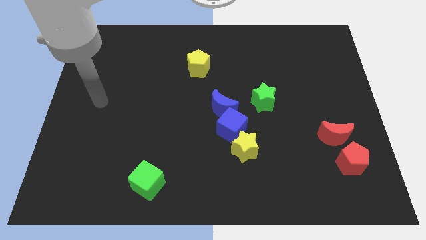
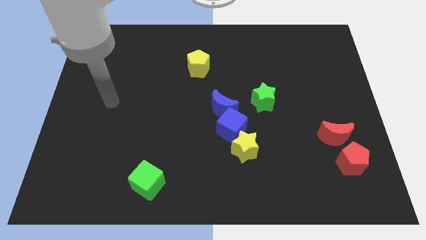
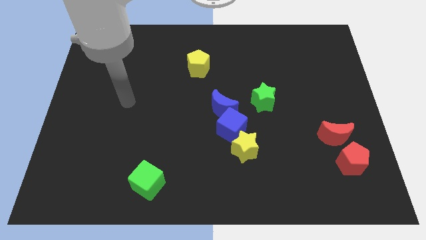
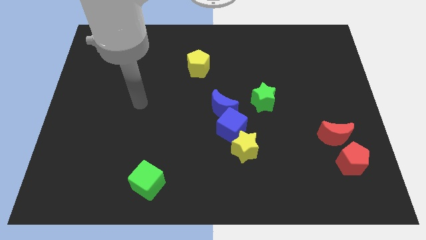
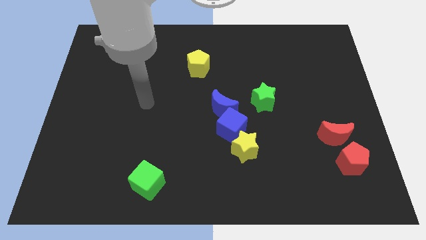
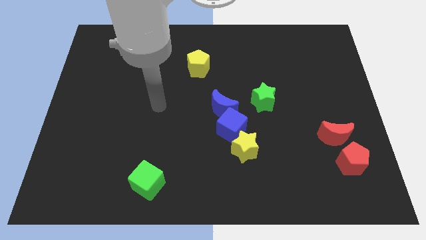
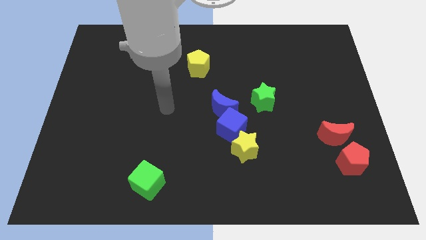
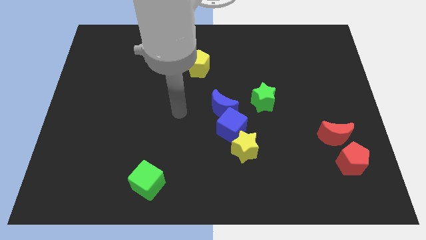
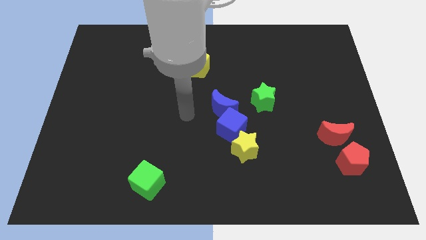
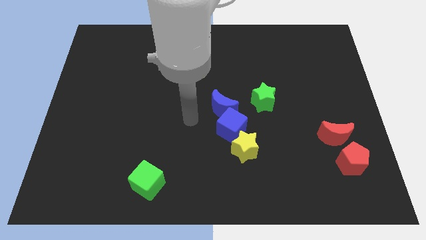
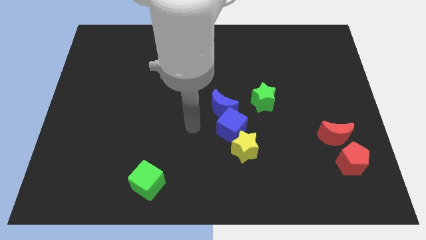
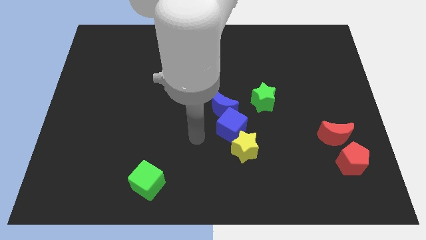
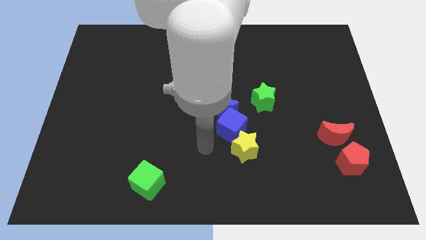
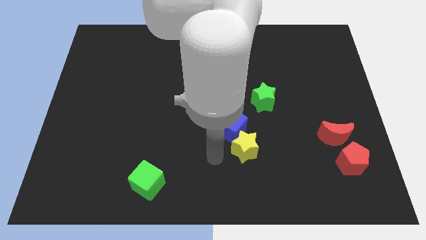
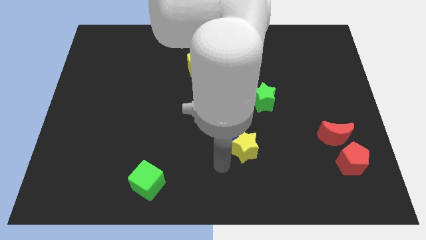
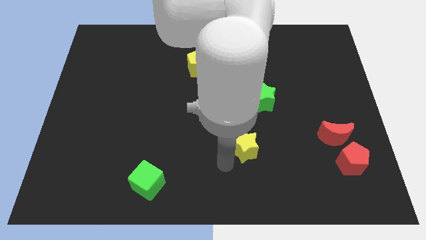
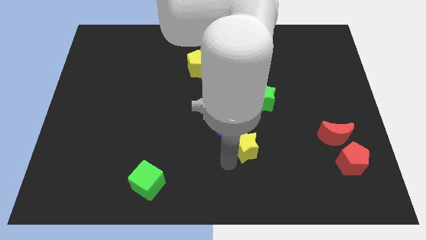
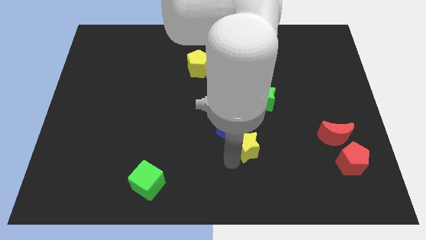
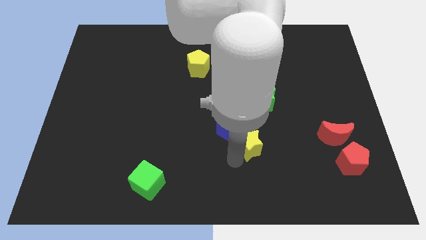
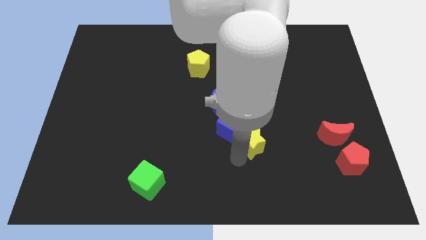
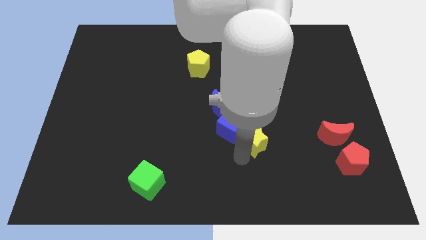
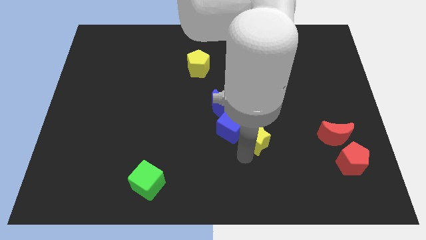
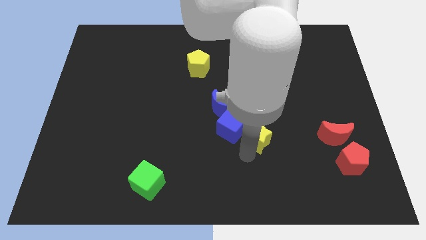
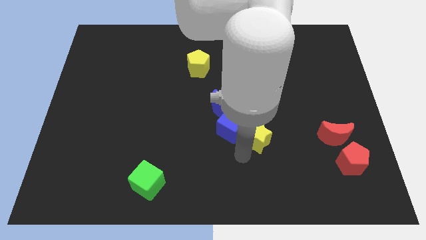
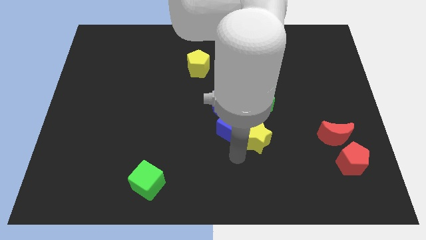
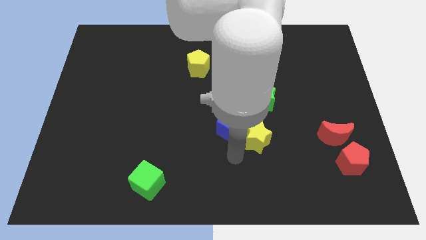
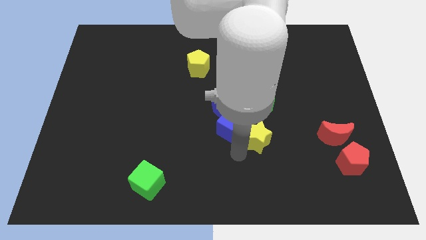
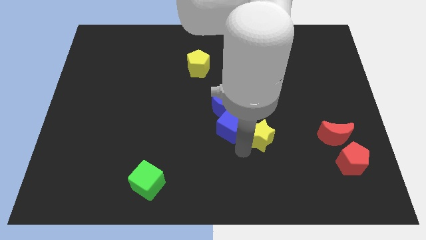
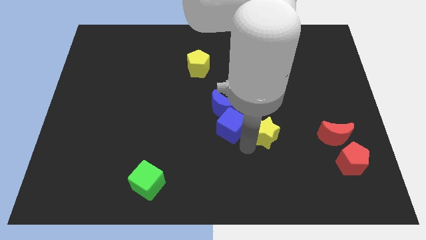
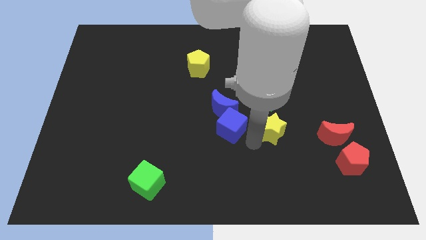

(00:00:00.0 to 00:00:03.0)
push the yellow star a little upwards and then to the right

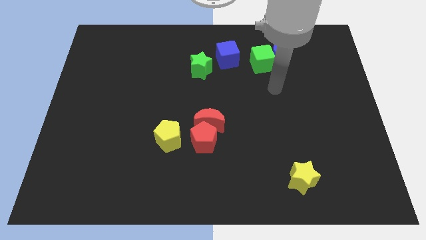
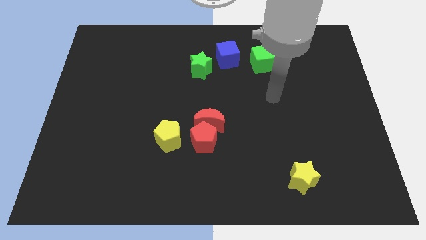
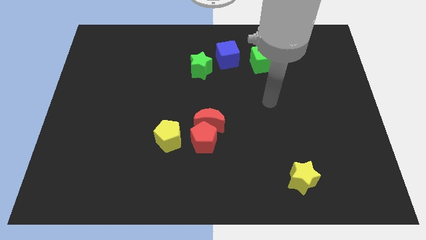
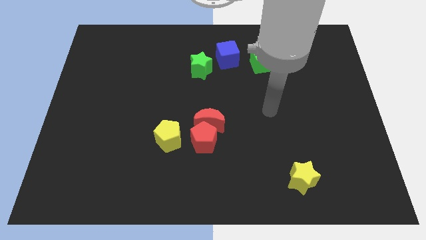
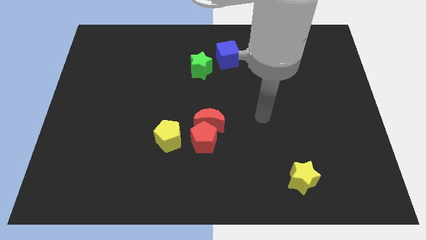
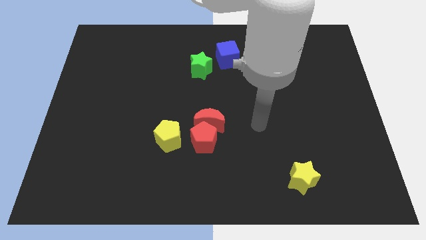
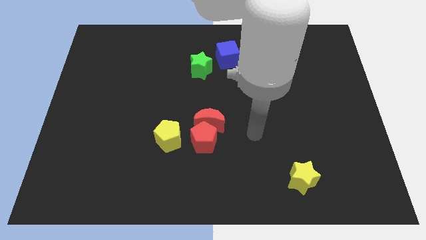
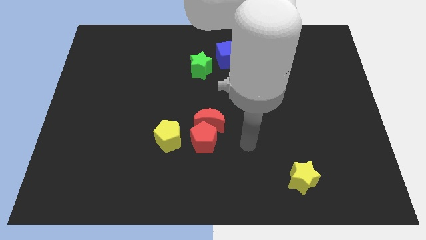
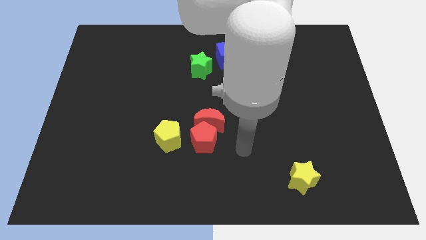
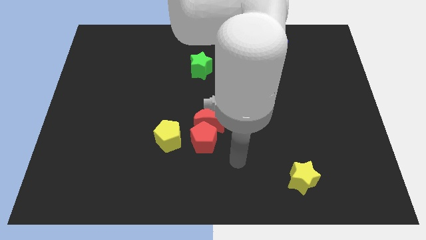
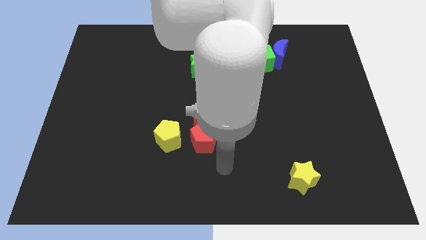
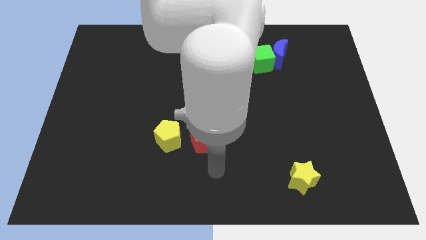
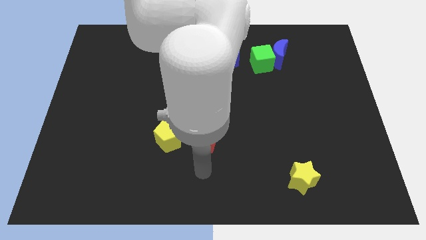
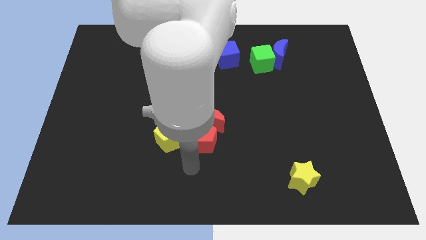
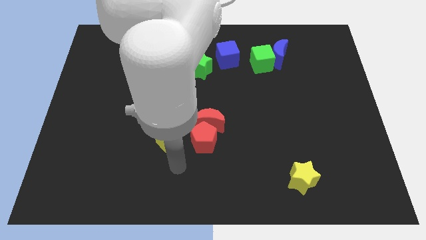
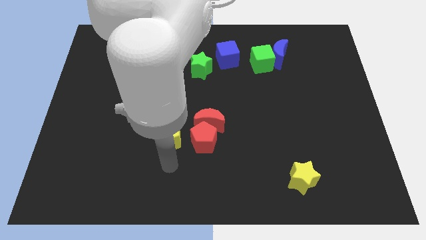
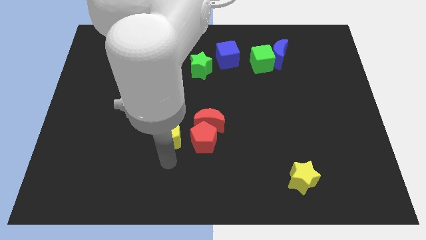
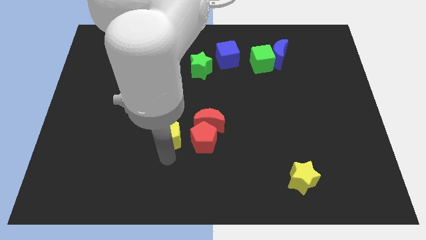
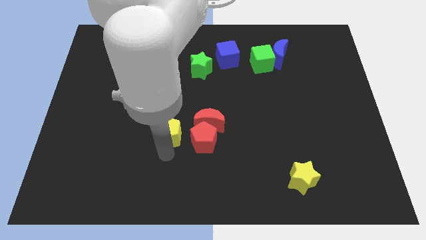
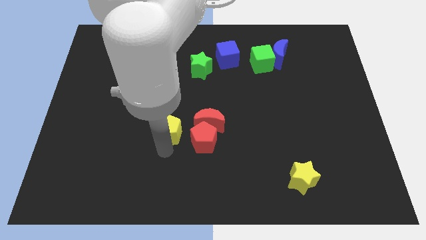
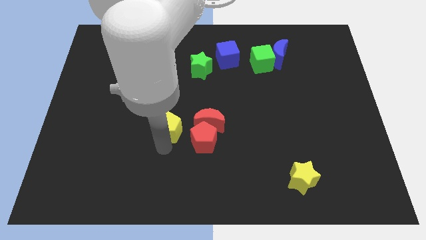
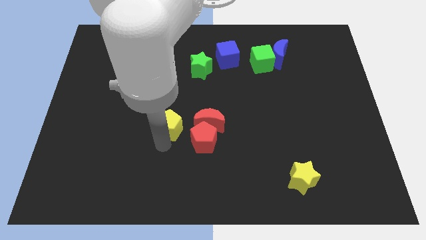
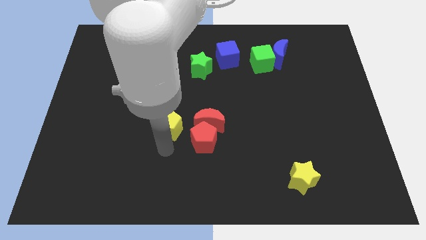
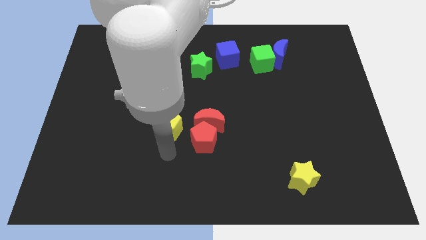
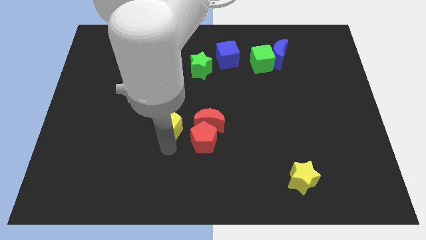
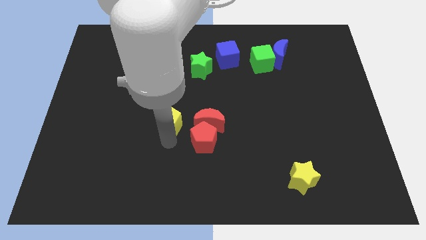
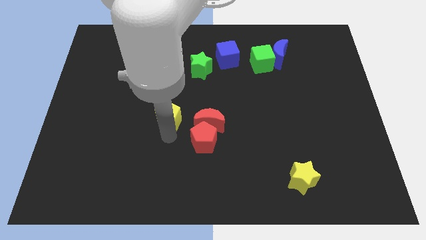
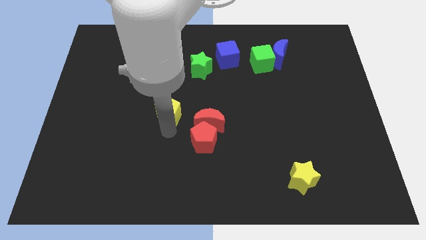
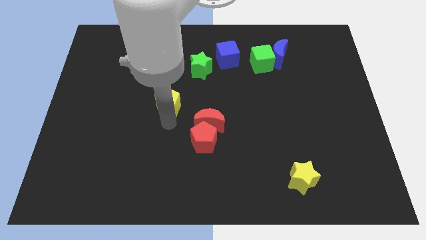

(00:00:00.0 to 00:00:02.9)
move the yellow pentagon slightly up

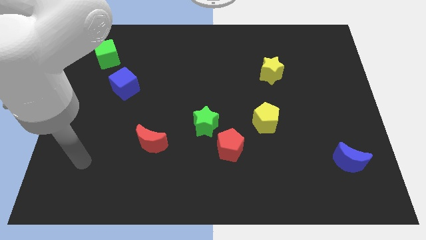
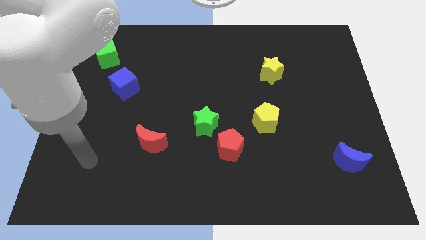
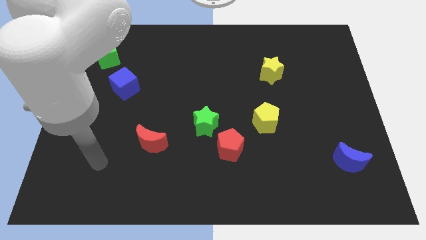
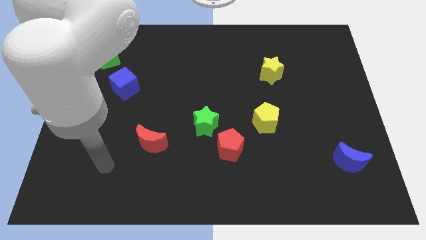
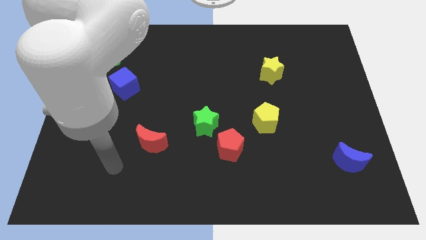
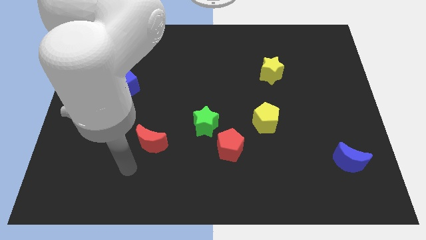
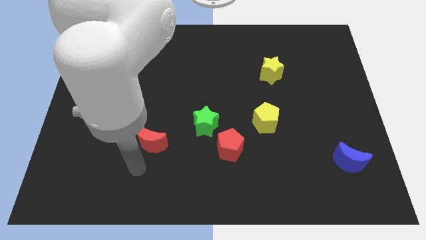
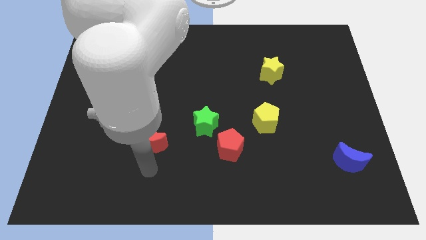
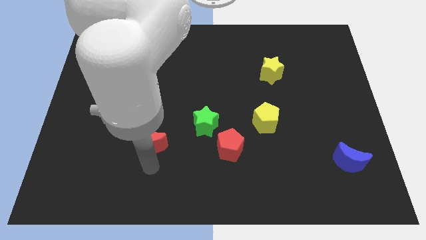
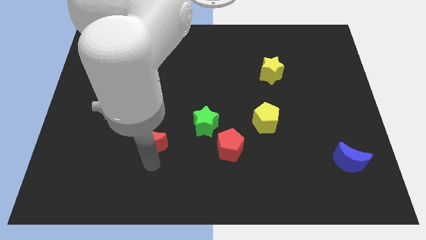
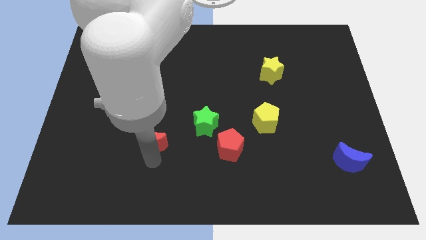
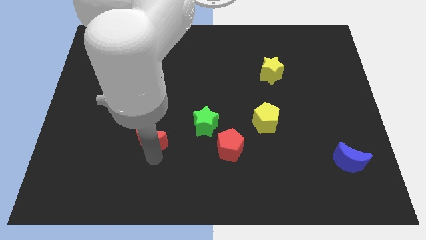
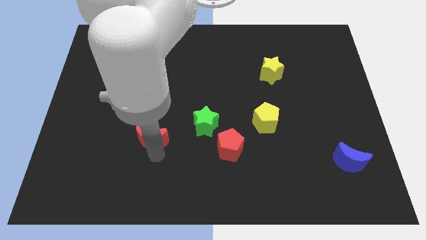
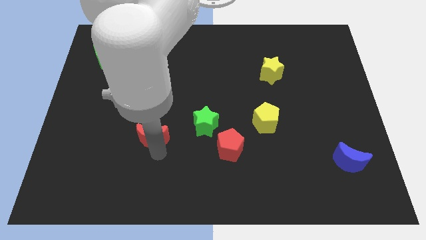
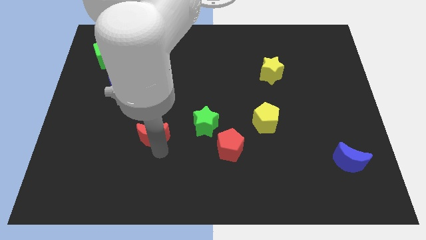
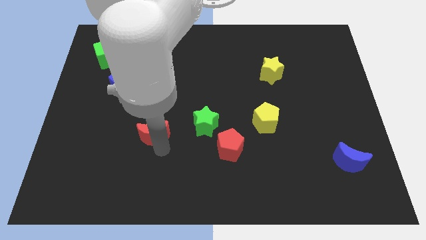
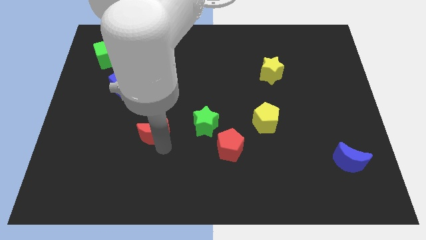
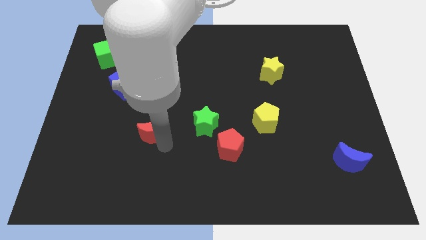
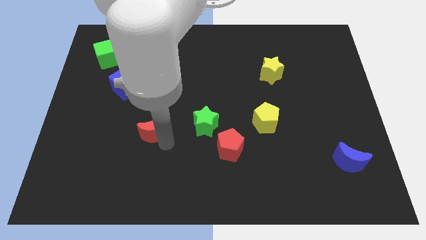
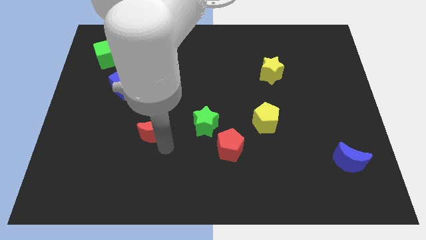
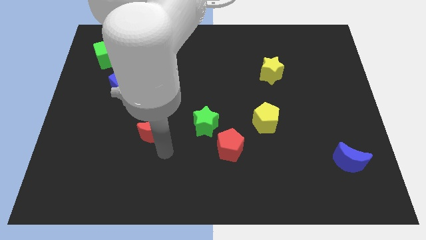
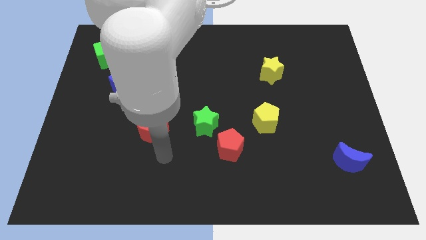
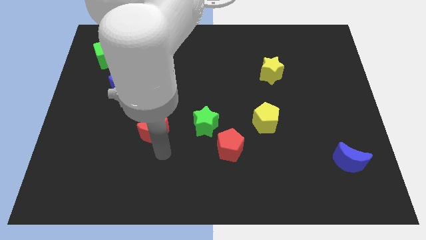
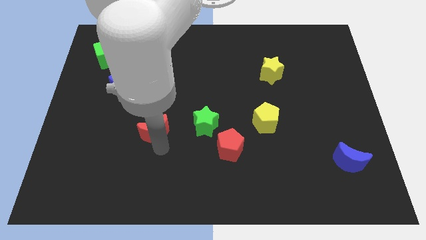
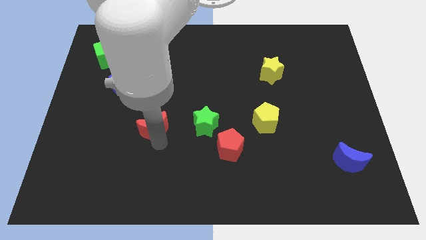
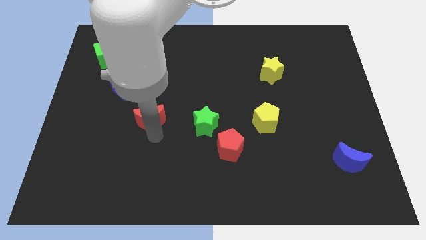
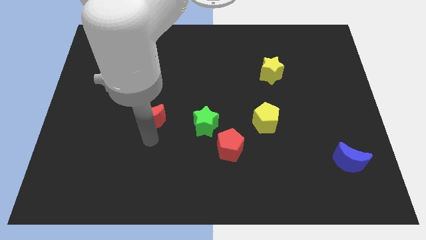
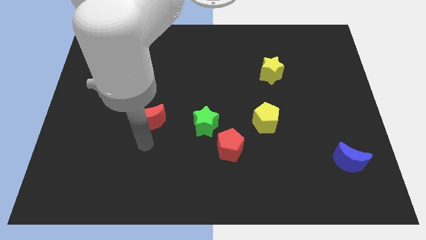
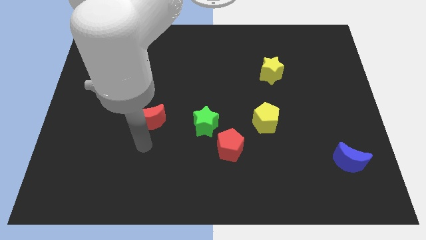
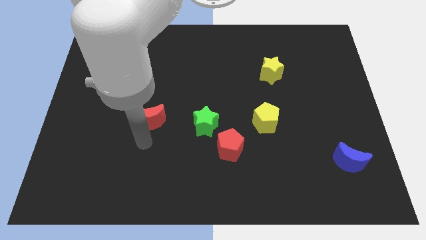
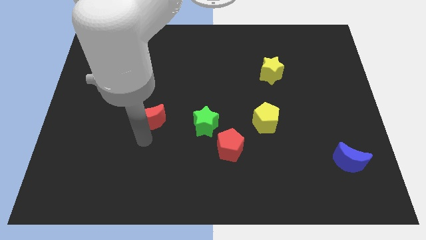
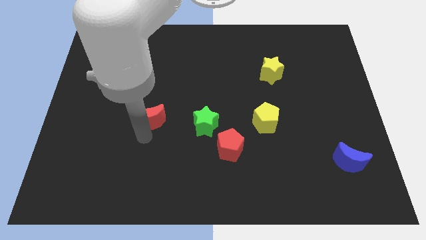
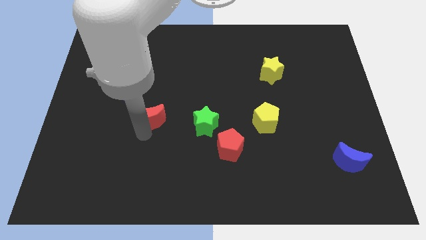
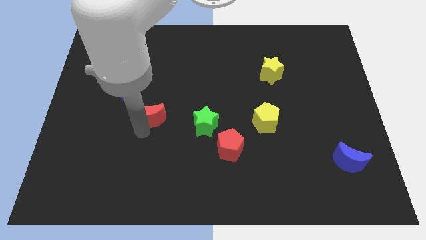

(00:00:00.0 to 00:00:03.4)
move the red moon a bit upwards
